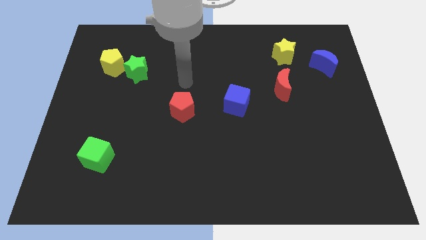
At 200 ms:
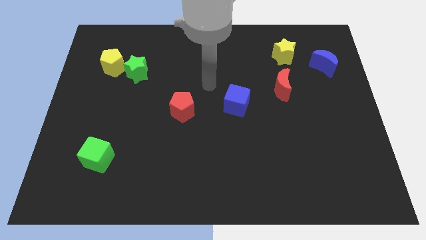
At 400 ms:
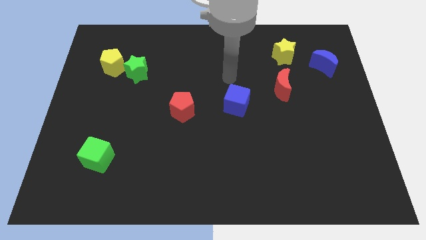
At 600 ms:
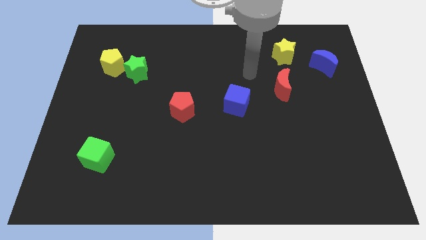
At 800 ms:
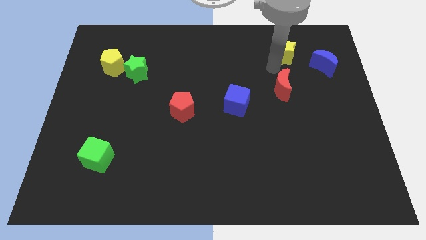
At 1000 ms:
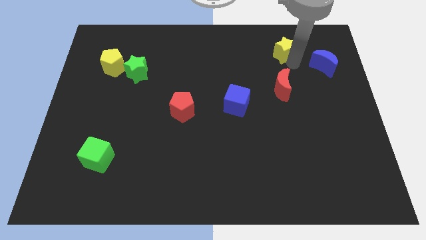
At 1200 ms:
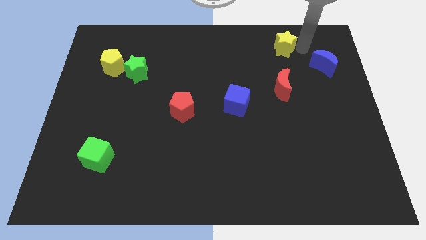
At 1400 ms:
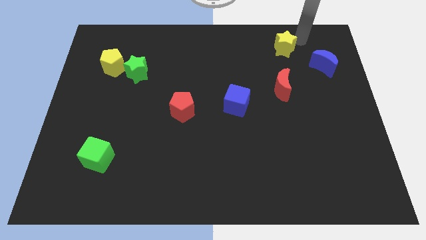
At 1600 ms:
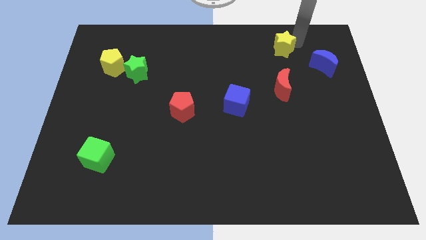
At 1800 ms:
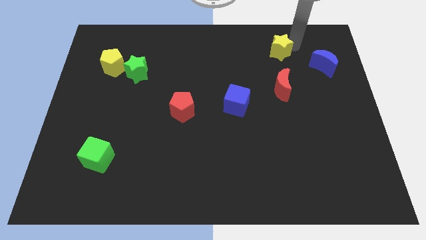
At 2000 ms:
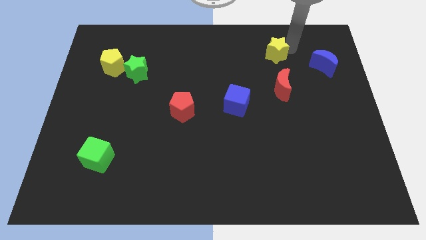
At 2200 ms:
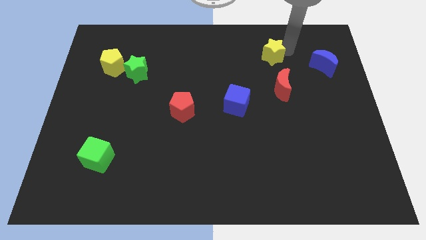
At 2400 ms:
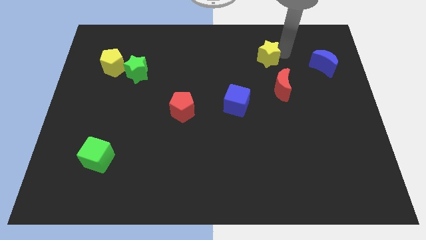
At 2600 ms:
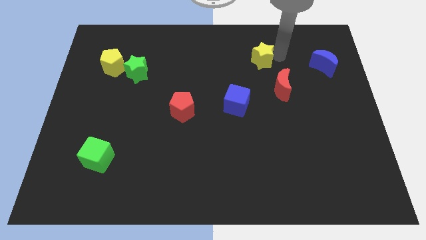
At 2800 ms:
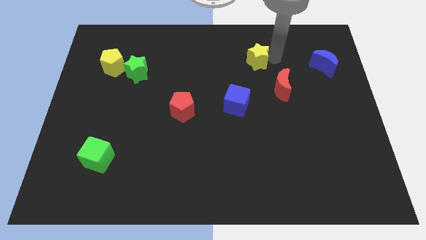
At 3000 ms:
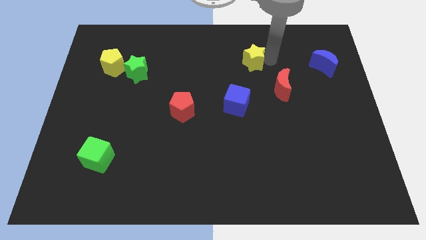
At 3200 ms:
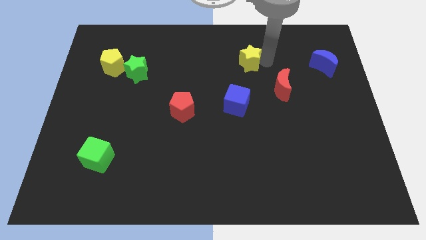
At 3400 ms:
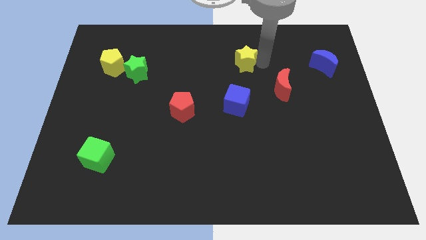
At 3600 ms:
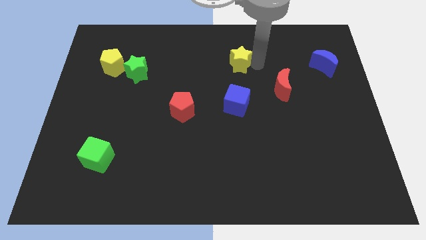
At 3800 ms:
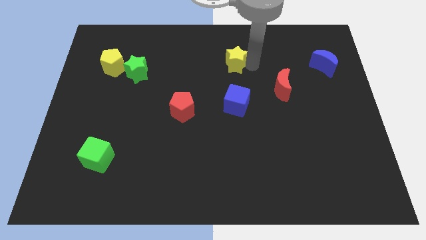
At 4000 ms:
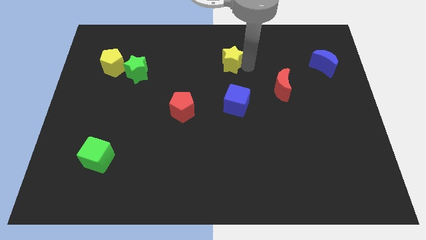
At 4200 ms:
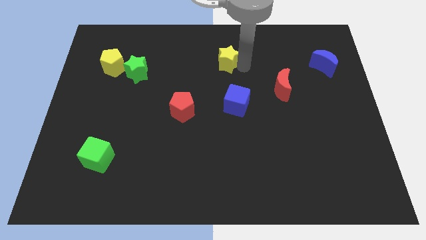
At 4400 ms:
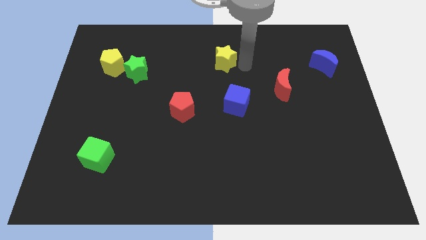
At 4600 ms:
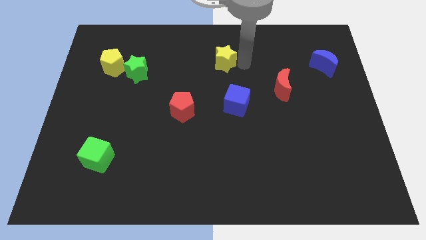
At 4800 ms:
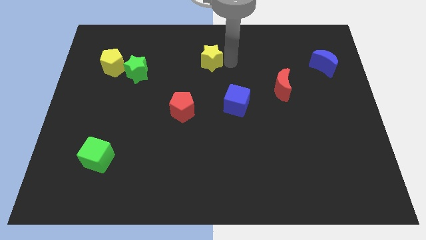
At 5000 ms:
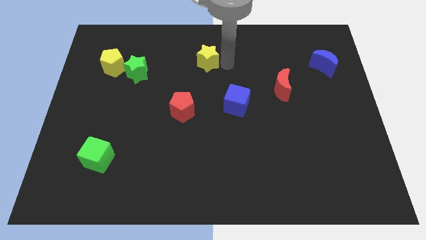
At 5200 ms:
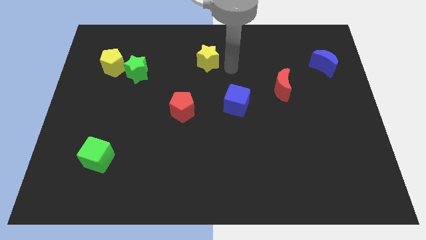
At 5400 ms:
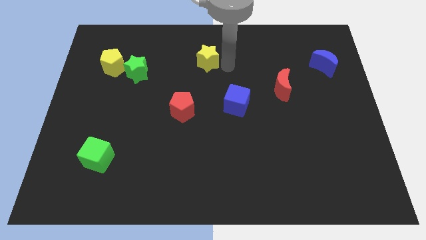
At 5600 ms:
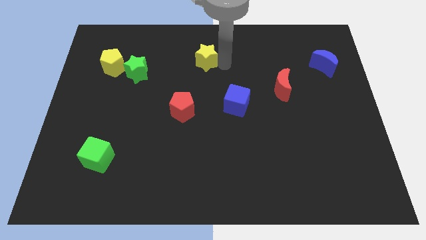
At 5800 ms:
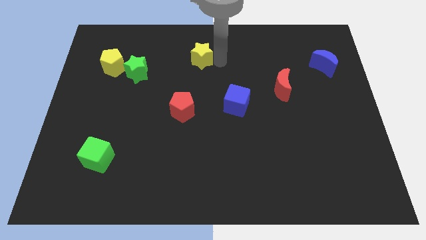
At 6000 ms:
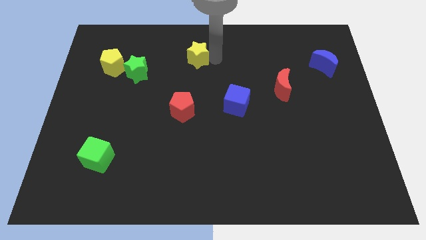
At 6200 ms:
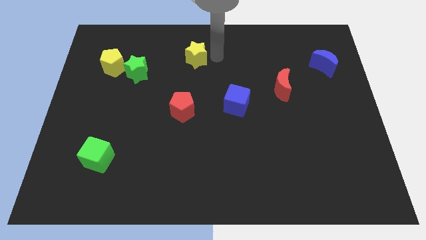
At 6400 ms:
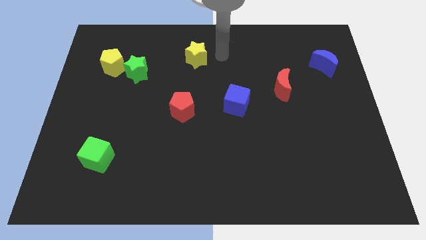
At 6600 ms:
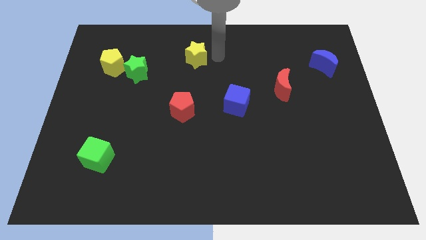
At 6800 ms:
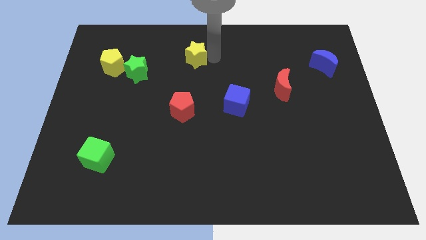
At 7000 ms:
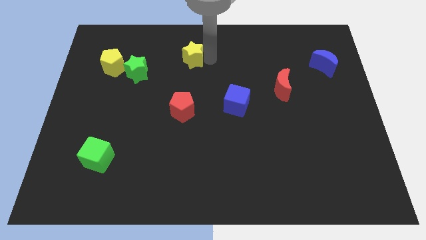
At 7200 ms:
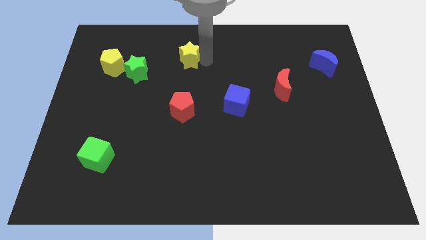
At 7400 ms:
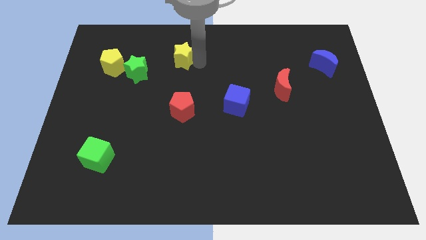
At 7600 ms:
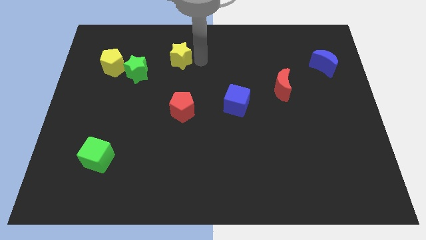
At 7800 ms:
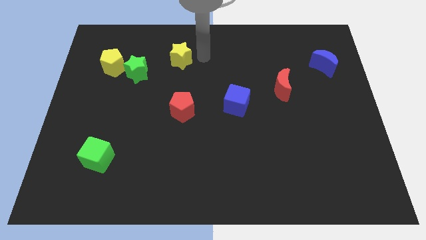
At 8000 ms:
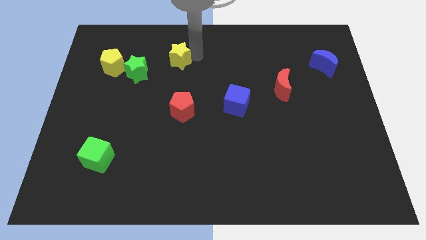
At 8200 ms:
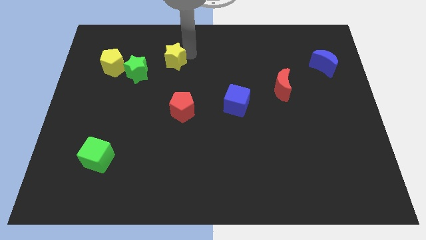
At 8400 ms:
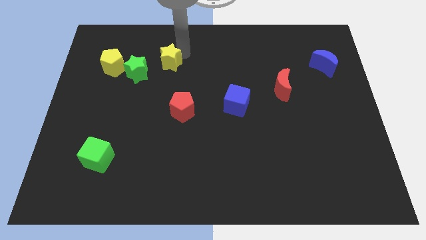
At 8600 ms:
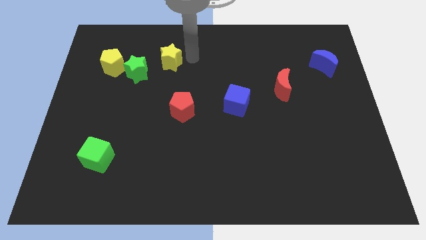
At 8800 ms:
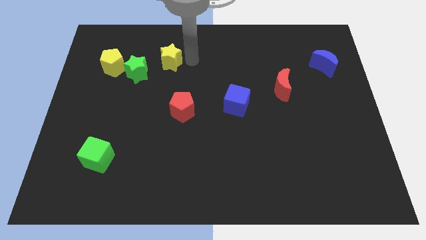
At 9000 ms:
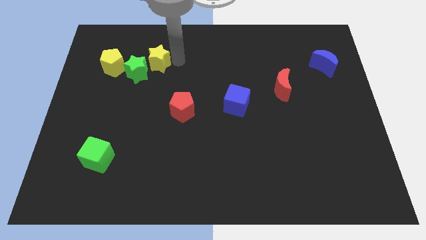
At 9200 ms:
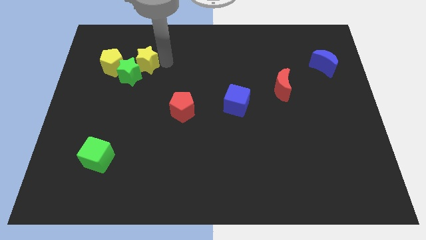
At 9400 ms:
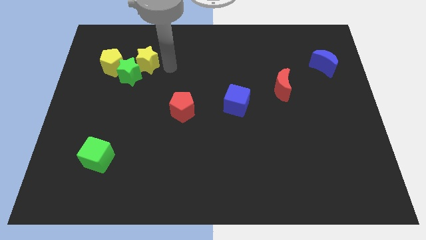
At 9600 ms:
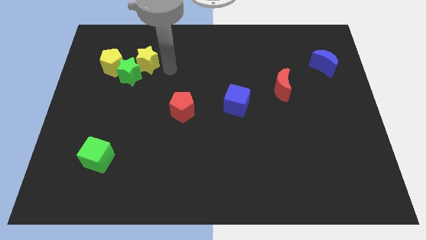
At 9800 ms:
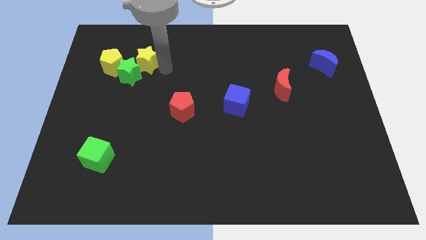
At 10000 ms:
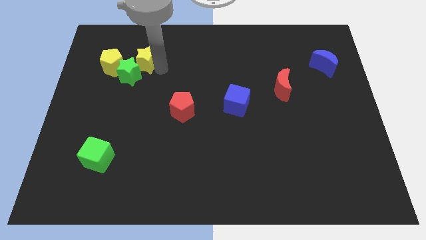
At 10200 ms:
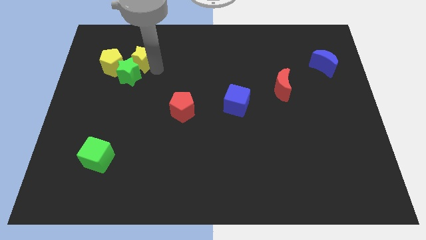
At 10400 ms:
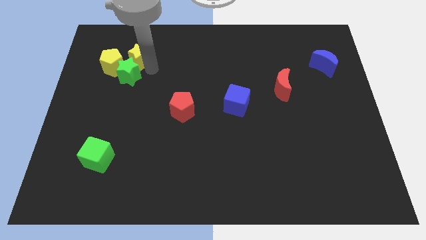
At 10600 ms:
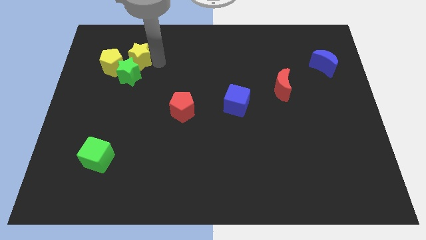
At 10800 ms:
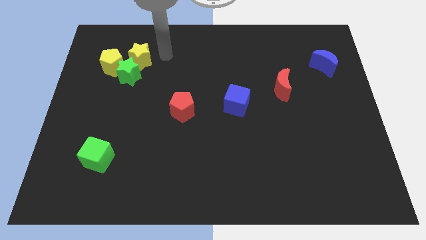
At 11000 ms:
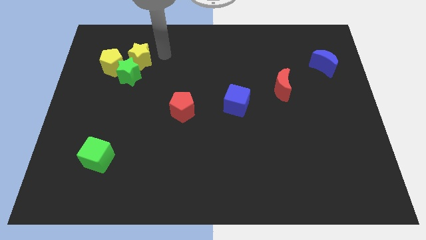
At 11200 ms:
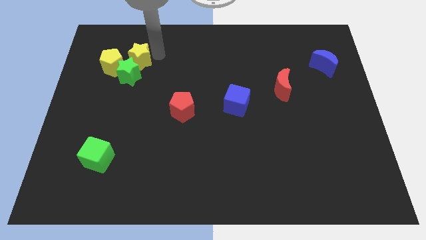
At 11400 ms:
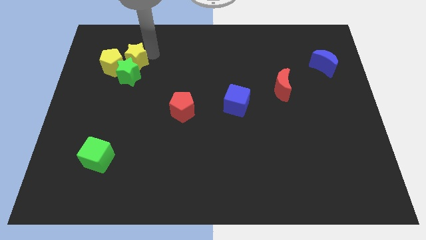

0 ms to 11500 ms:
put the yellow star to the yellow pentagon

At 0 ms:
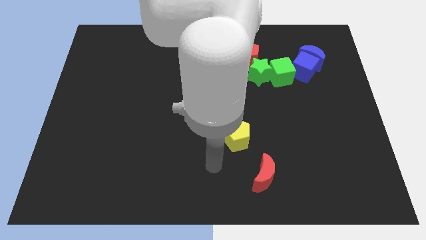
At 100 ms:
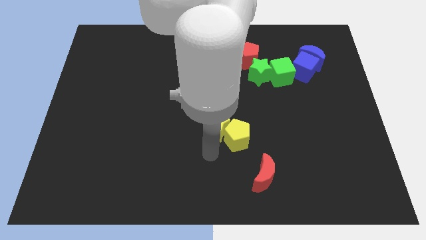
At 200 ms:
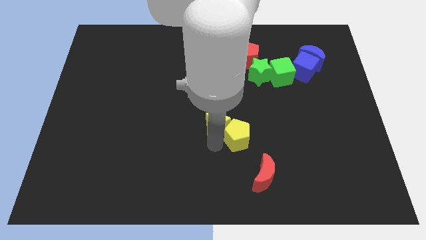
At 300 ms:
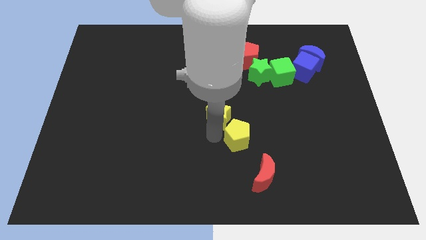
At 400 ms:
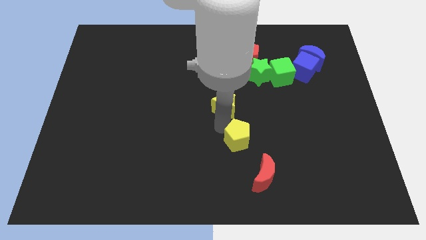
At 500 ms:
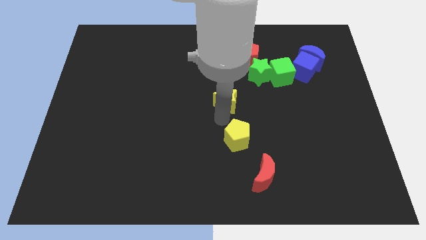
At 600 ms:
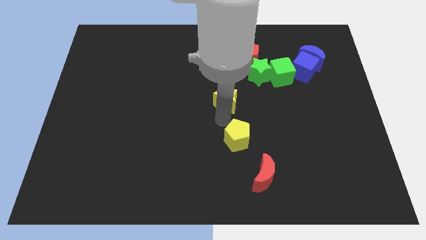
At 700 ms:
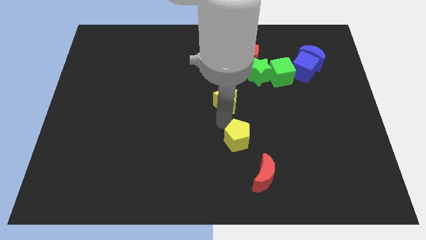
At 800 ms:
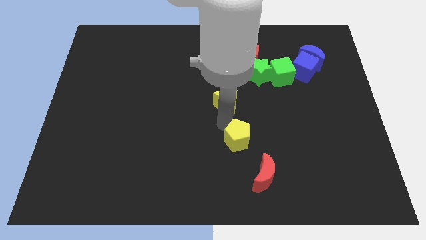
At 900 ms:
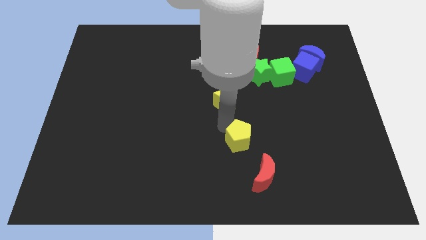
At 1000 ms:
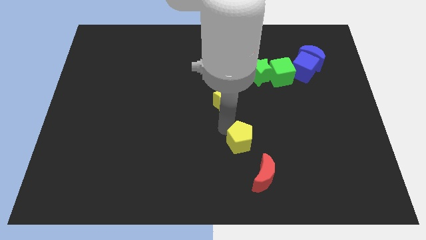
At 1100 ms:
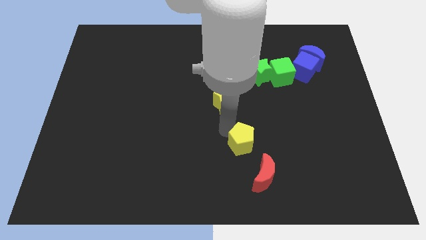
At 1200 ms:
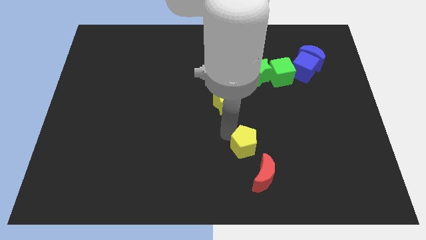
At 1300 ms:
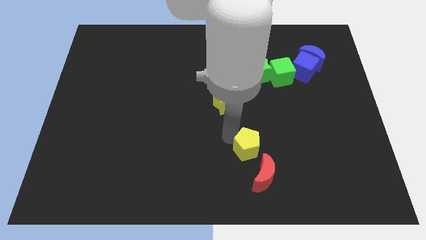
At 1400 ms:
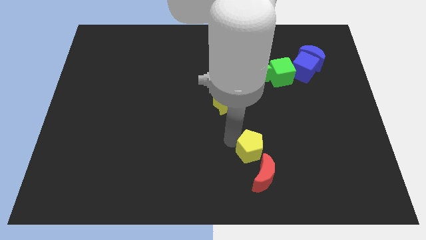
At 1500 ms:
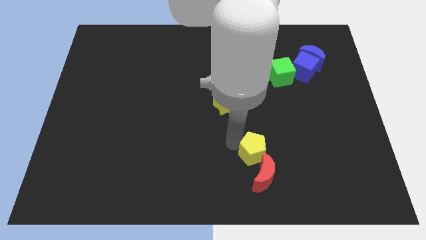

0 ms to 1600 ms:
push the yellow pentagon to the red moon
